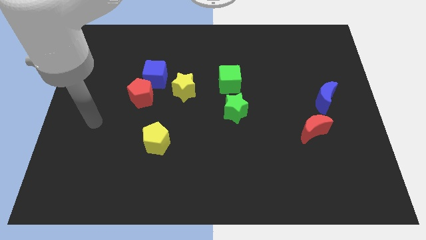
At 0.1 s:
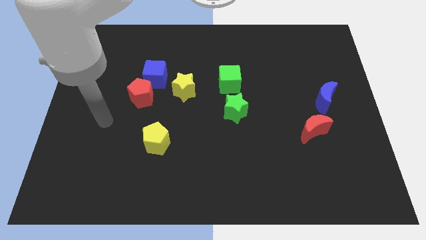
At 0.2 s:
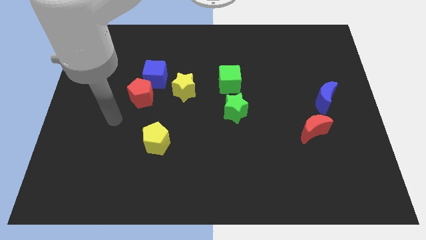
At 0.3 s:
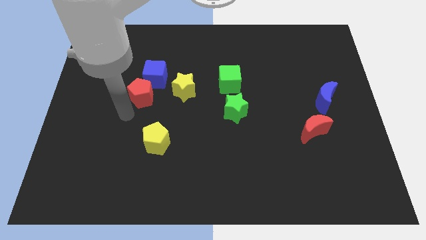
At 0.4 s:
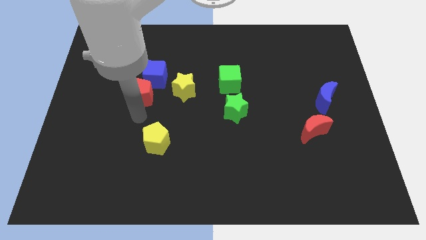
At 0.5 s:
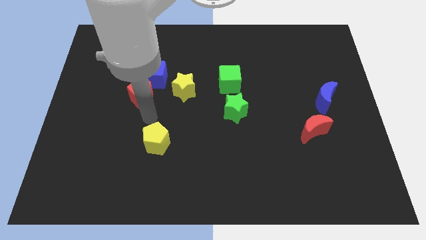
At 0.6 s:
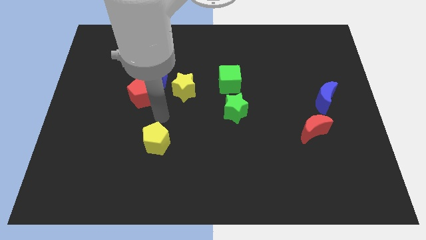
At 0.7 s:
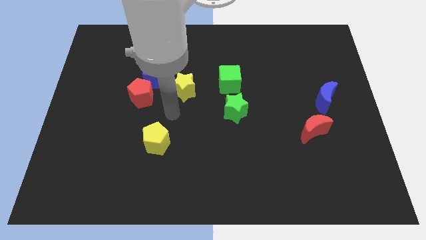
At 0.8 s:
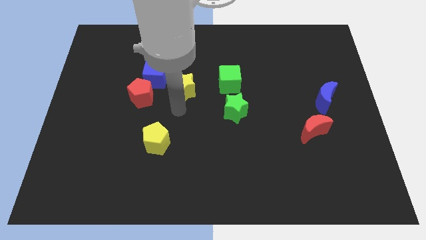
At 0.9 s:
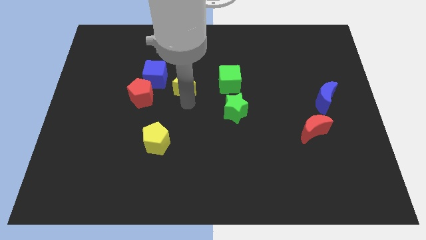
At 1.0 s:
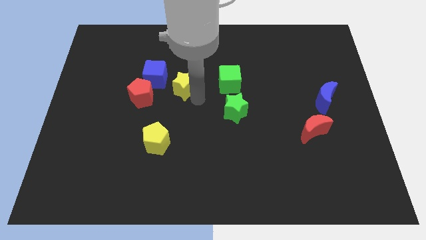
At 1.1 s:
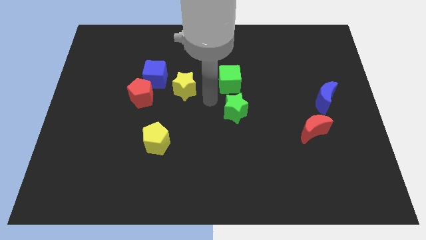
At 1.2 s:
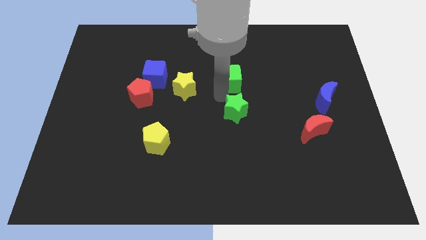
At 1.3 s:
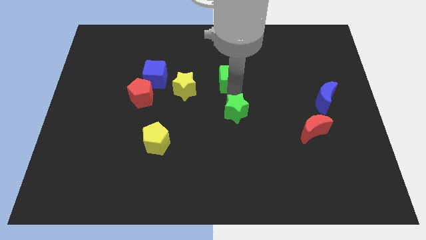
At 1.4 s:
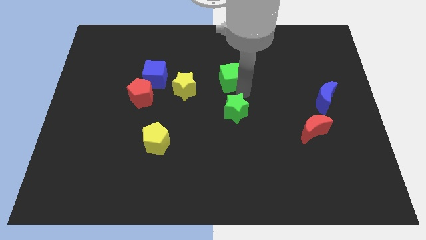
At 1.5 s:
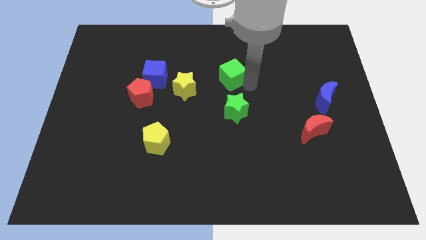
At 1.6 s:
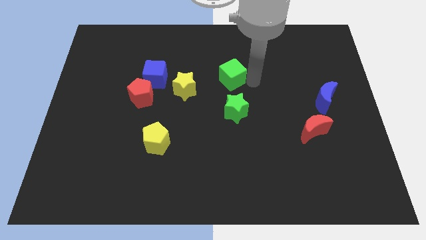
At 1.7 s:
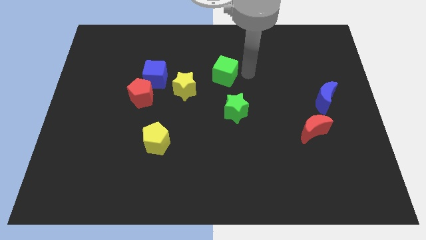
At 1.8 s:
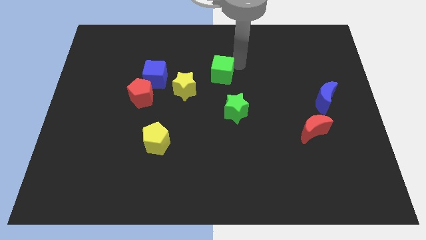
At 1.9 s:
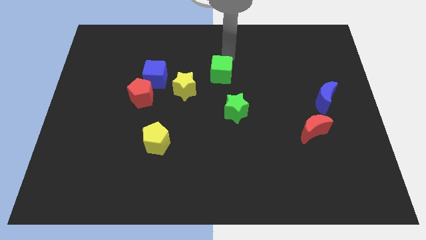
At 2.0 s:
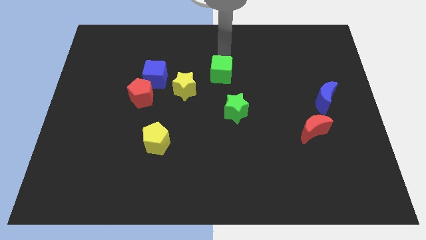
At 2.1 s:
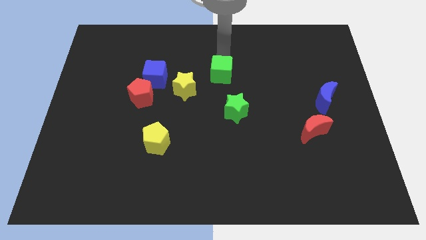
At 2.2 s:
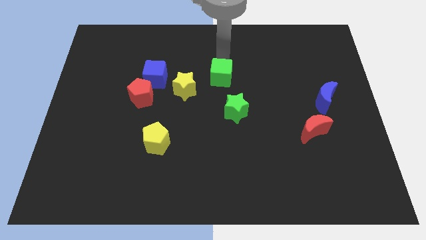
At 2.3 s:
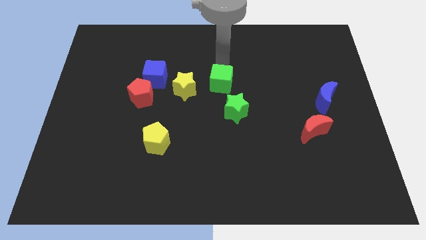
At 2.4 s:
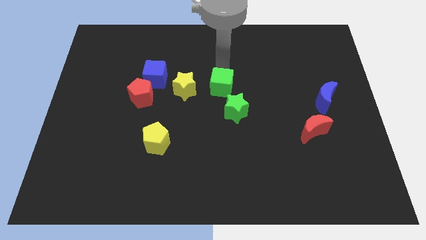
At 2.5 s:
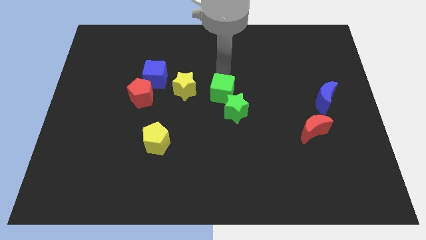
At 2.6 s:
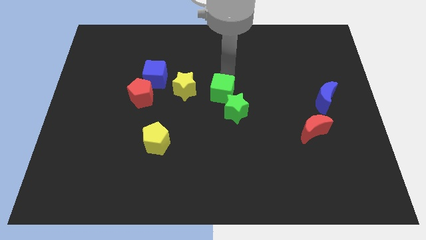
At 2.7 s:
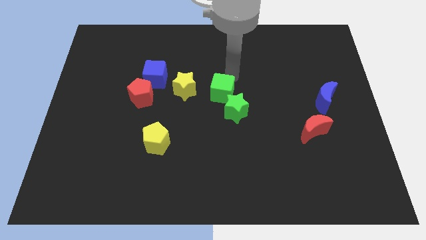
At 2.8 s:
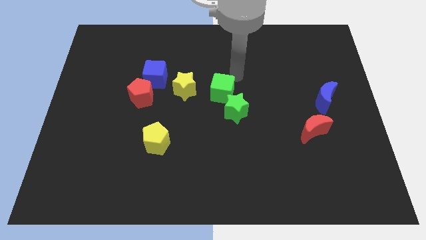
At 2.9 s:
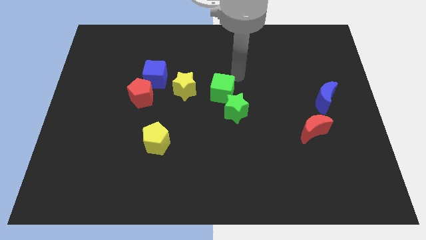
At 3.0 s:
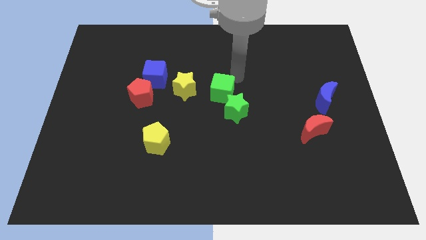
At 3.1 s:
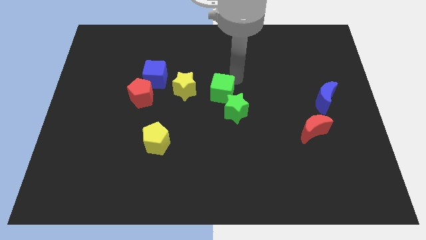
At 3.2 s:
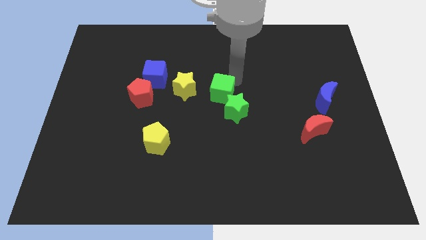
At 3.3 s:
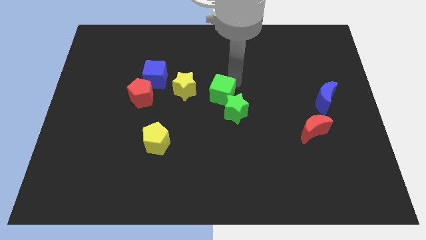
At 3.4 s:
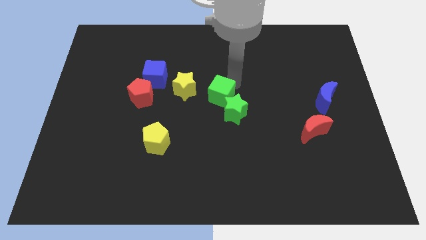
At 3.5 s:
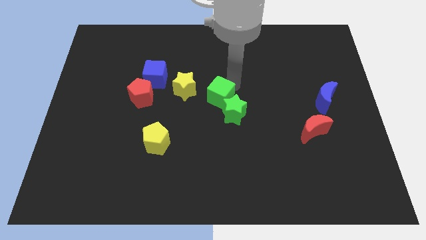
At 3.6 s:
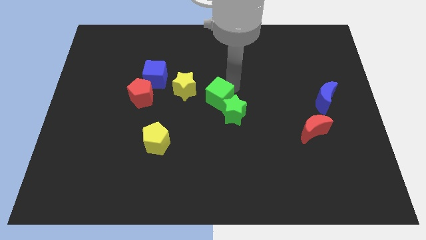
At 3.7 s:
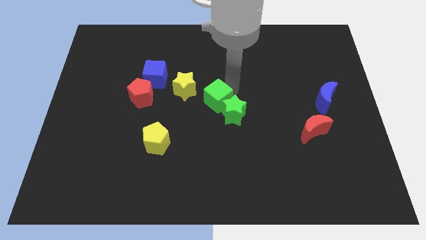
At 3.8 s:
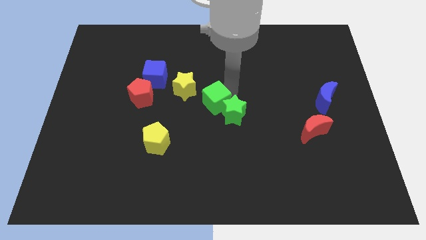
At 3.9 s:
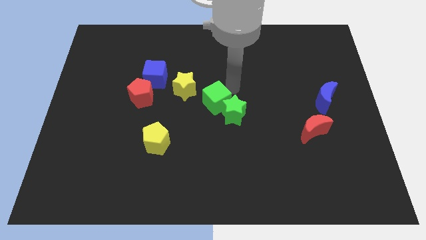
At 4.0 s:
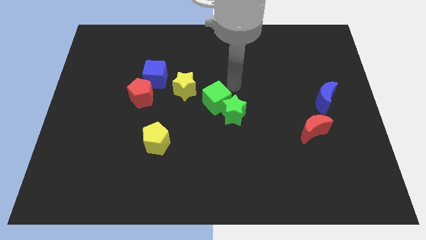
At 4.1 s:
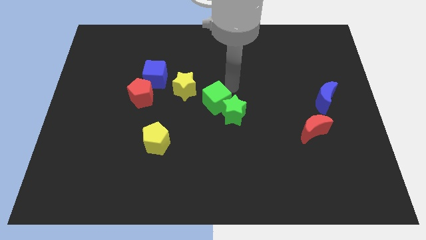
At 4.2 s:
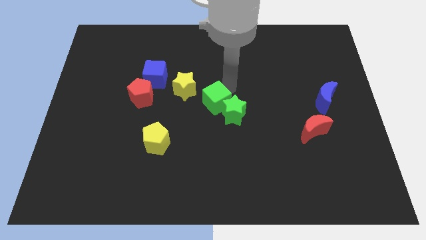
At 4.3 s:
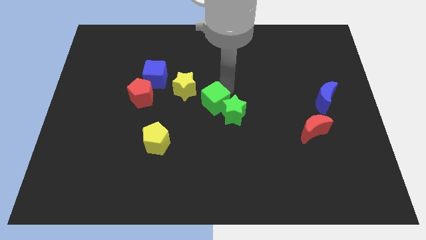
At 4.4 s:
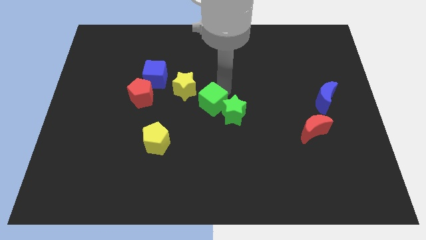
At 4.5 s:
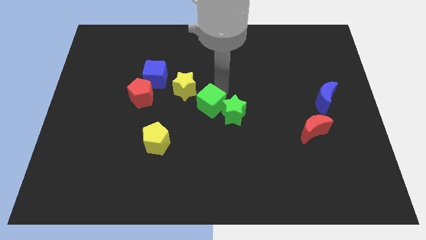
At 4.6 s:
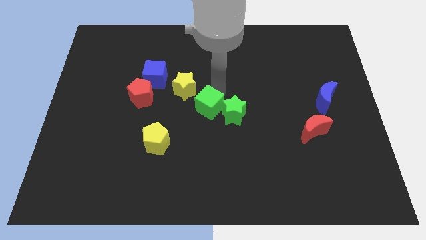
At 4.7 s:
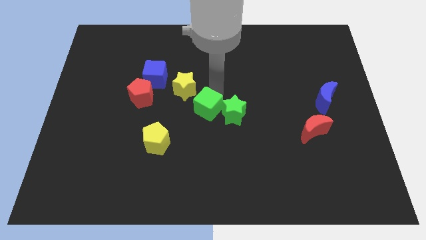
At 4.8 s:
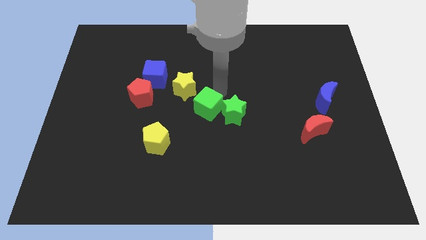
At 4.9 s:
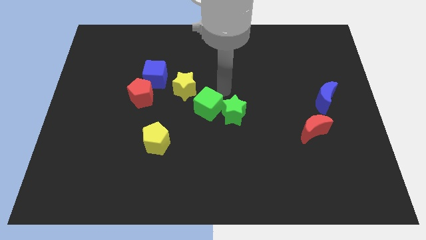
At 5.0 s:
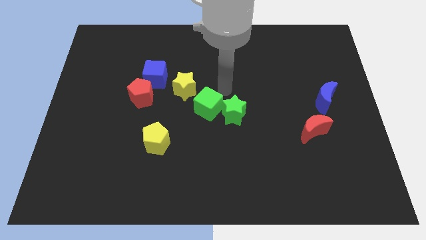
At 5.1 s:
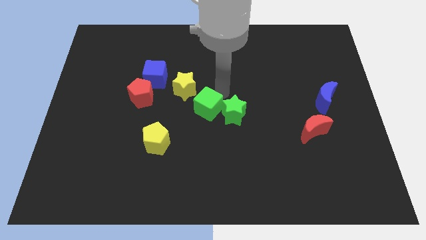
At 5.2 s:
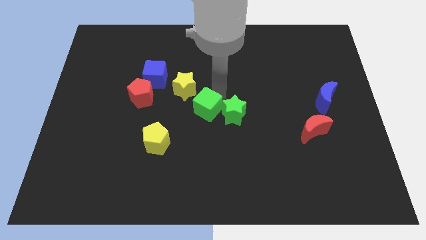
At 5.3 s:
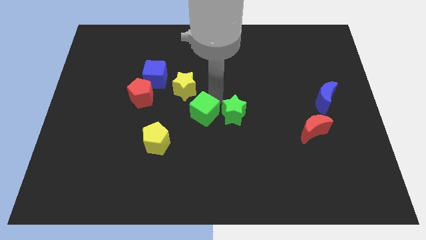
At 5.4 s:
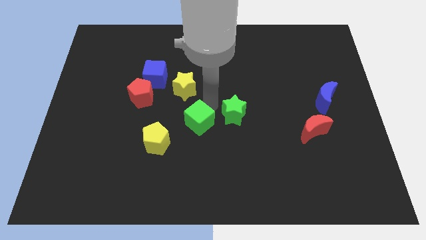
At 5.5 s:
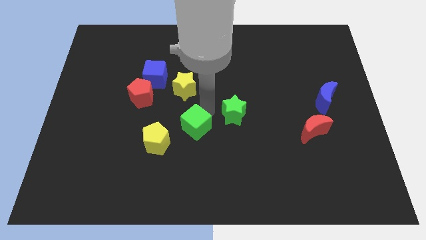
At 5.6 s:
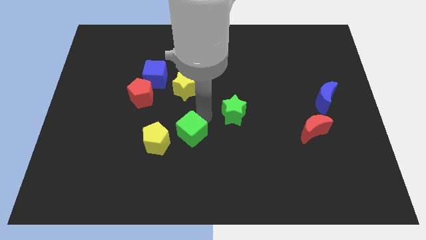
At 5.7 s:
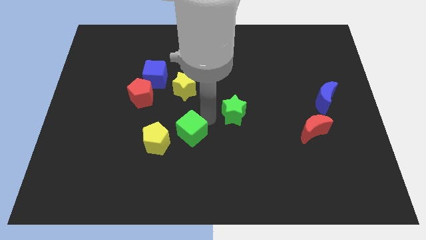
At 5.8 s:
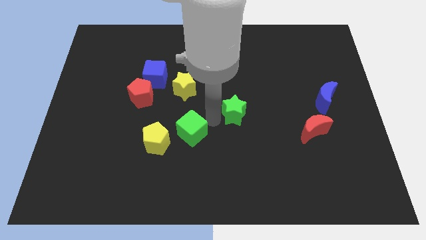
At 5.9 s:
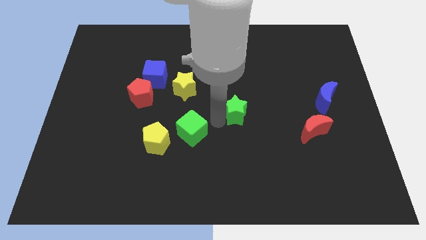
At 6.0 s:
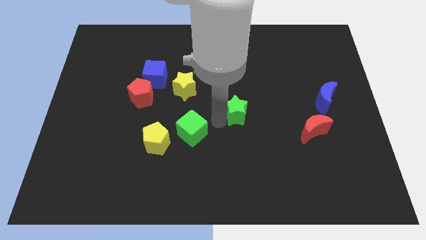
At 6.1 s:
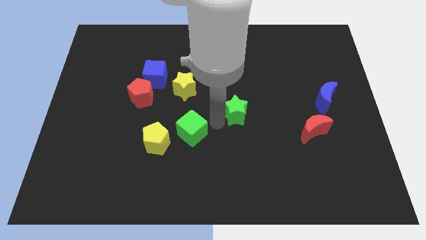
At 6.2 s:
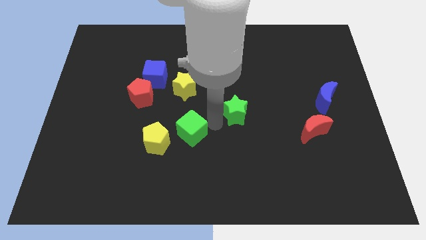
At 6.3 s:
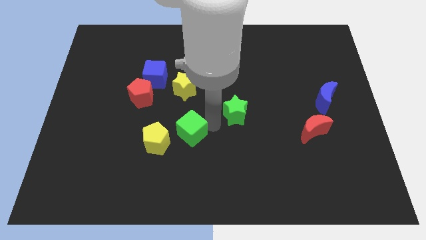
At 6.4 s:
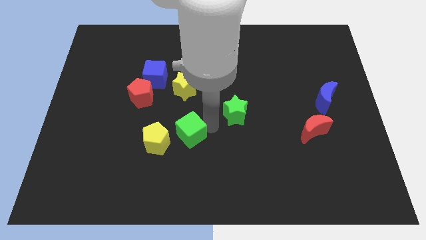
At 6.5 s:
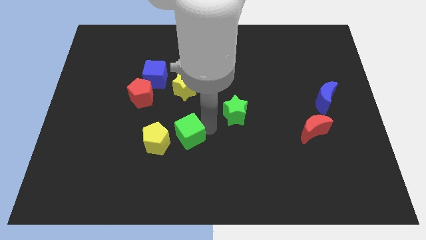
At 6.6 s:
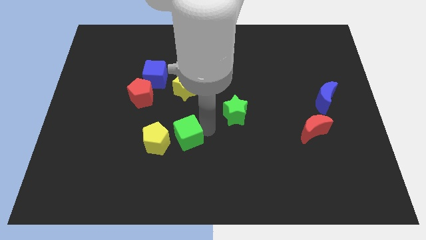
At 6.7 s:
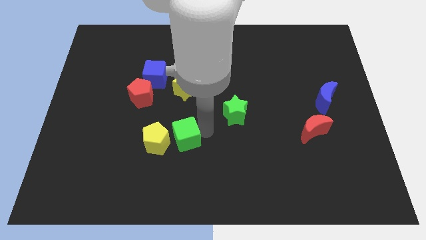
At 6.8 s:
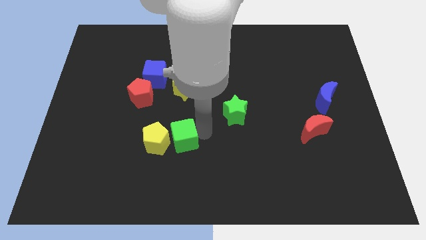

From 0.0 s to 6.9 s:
slide the green cube to the yellow pentagon

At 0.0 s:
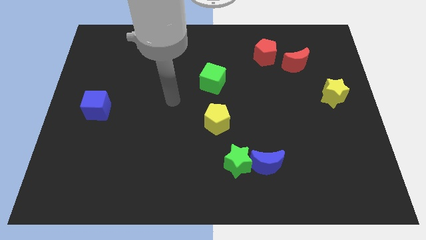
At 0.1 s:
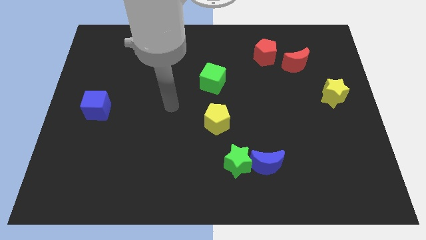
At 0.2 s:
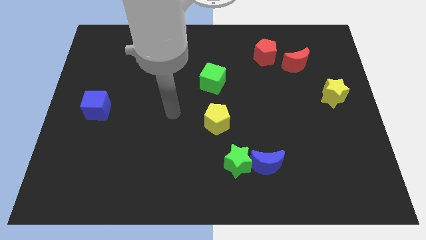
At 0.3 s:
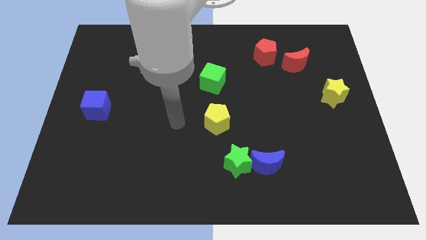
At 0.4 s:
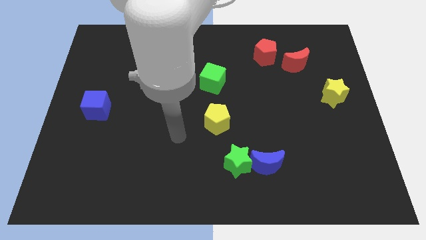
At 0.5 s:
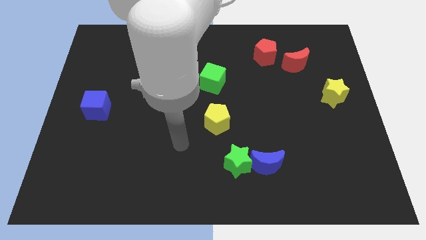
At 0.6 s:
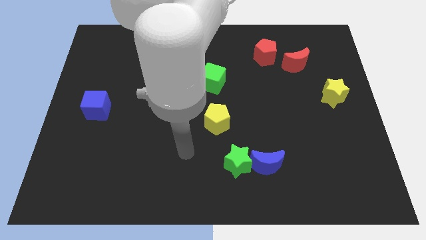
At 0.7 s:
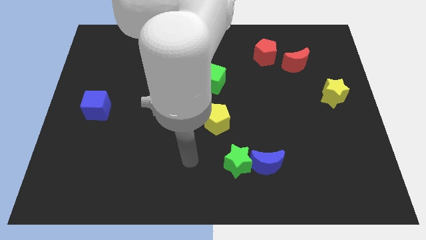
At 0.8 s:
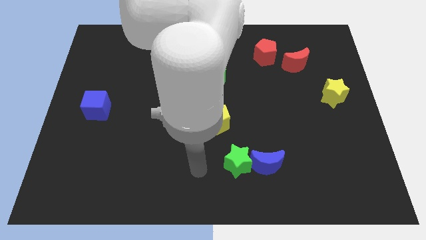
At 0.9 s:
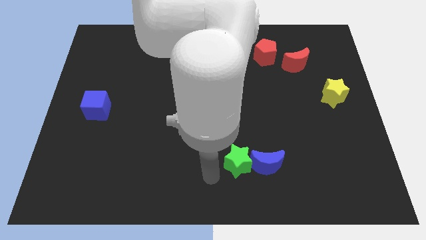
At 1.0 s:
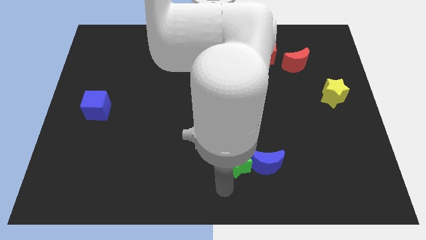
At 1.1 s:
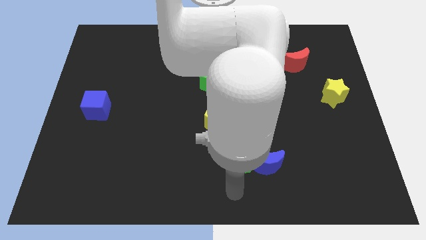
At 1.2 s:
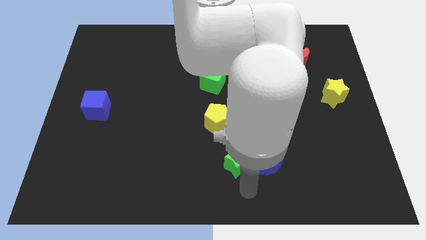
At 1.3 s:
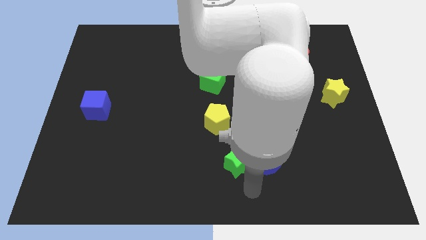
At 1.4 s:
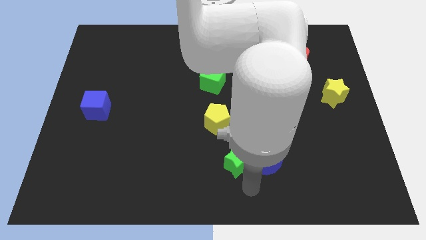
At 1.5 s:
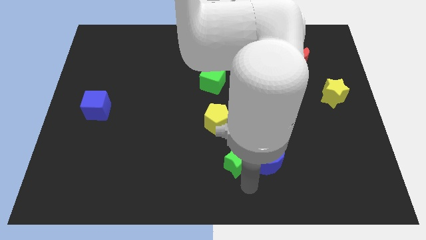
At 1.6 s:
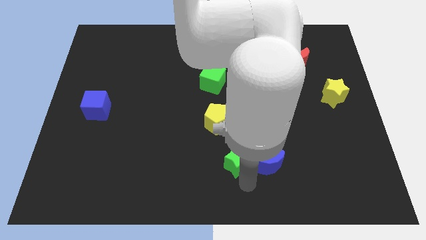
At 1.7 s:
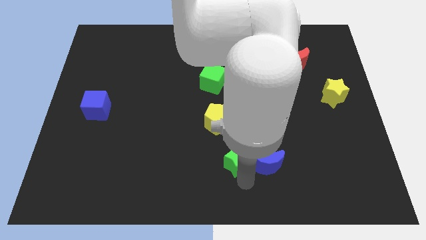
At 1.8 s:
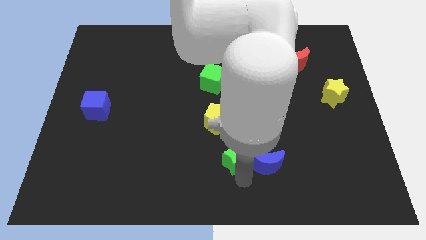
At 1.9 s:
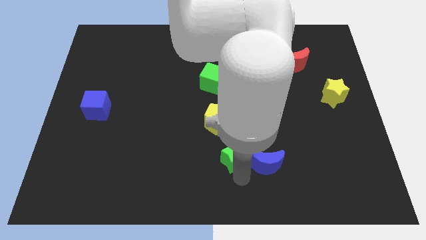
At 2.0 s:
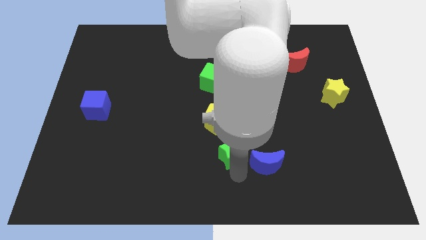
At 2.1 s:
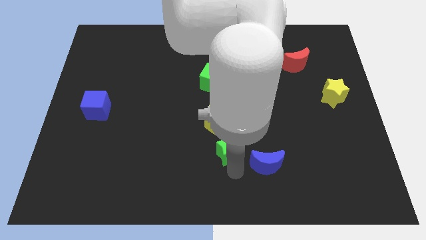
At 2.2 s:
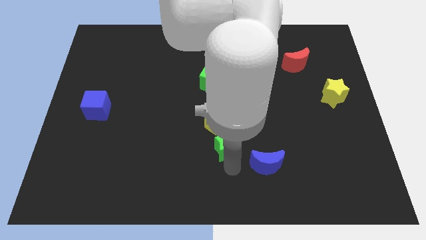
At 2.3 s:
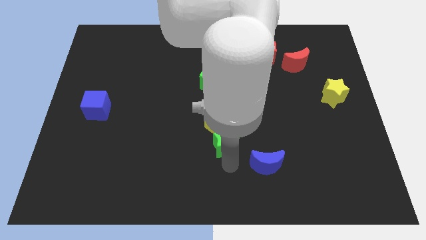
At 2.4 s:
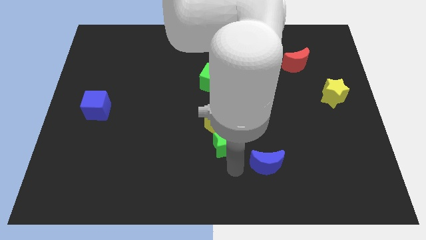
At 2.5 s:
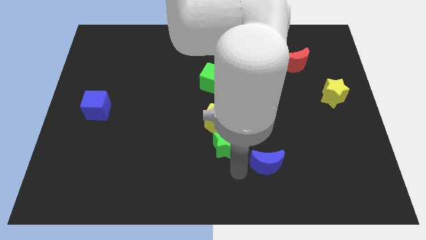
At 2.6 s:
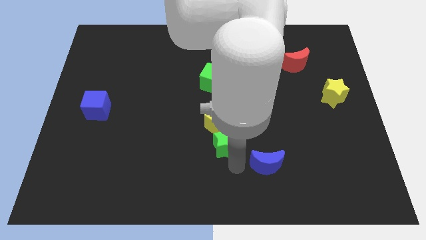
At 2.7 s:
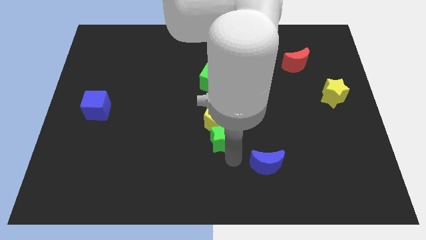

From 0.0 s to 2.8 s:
put the green star to the yellow pentagon
